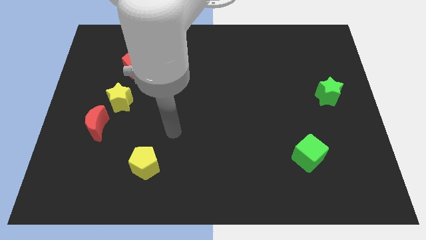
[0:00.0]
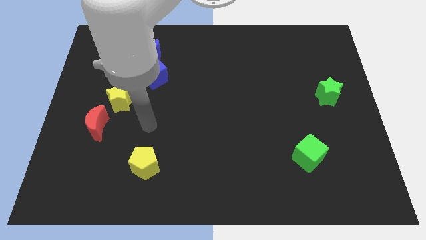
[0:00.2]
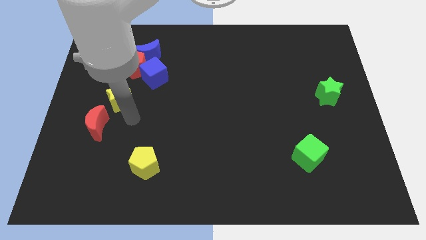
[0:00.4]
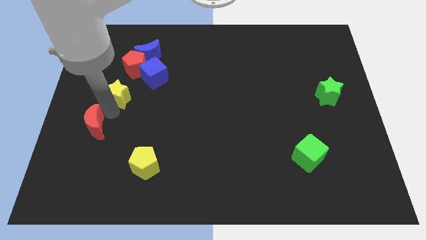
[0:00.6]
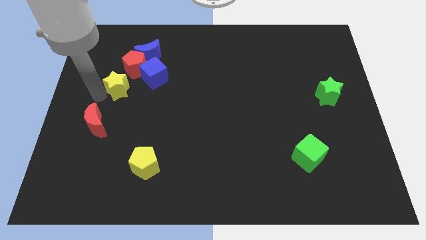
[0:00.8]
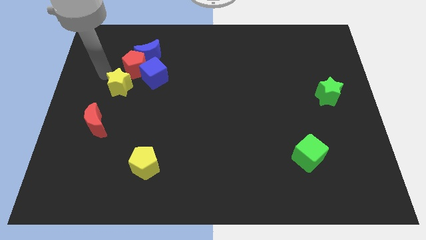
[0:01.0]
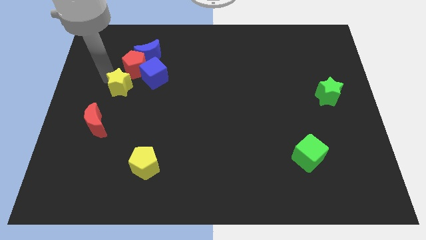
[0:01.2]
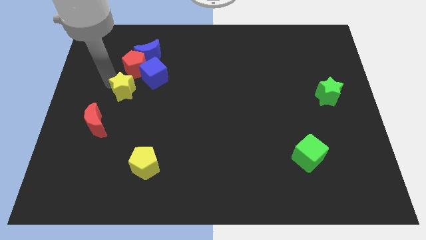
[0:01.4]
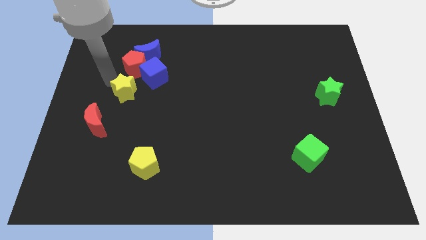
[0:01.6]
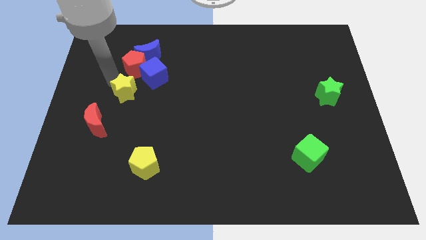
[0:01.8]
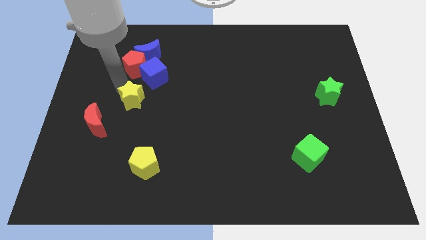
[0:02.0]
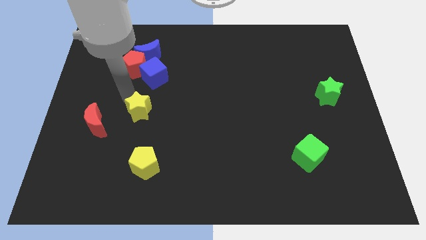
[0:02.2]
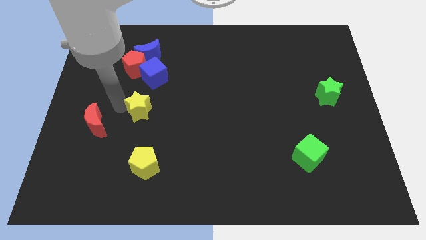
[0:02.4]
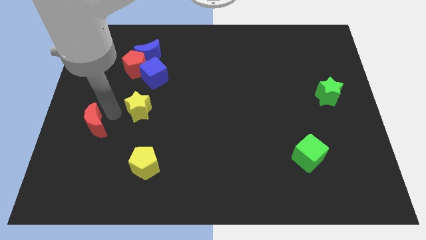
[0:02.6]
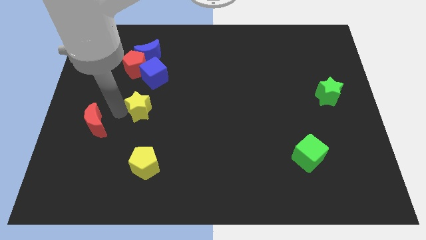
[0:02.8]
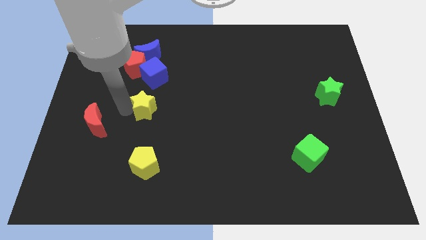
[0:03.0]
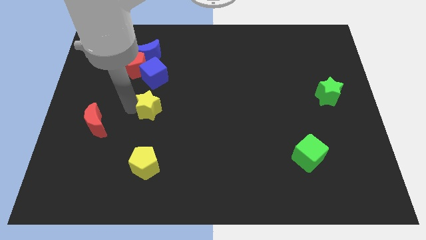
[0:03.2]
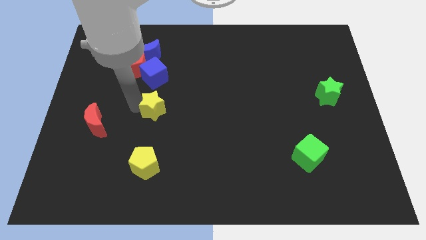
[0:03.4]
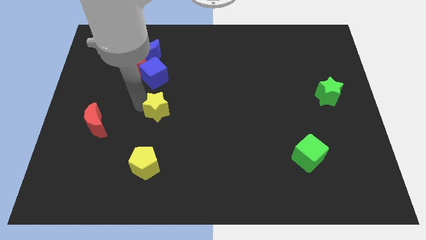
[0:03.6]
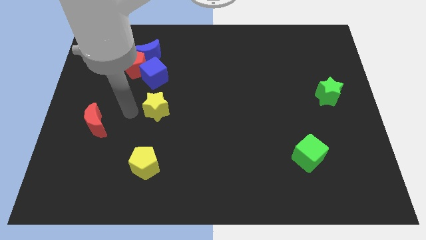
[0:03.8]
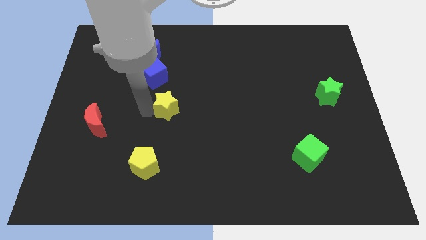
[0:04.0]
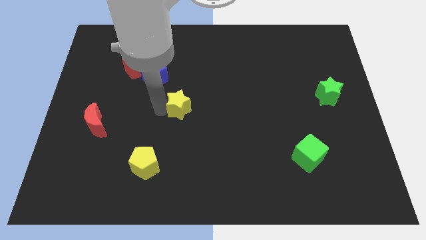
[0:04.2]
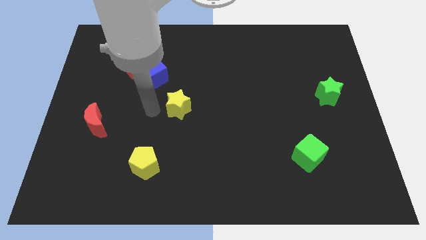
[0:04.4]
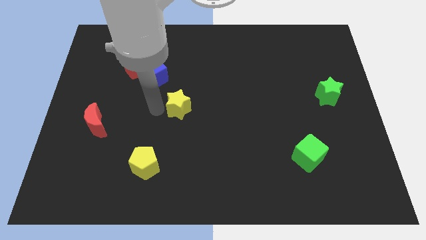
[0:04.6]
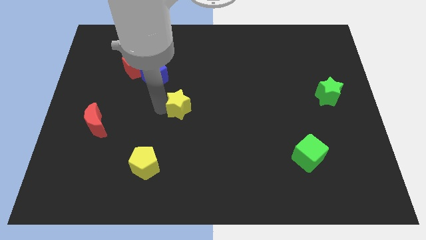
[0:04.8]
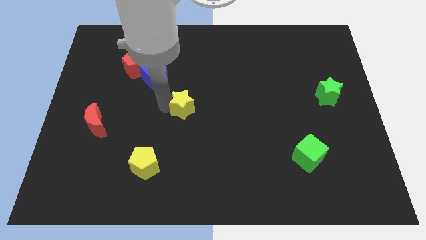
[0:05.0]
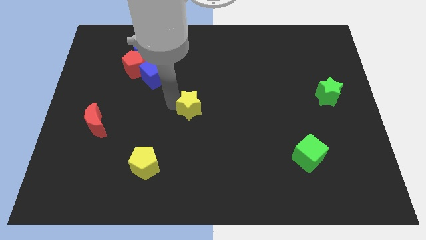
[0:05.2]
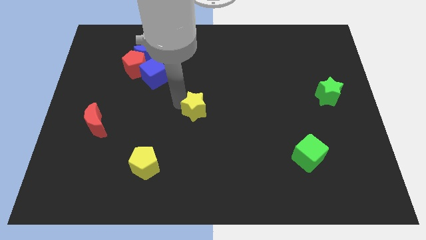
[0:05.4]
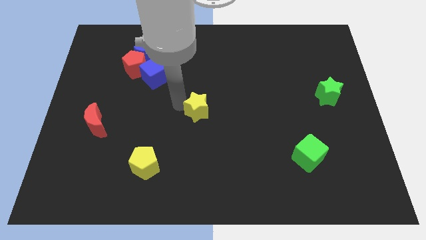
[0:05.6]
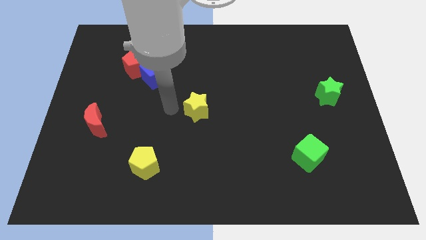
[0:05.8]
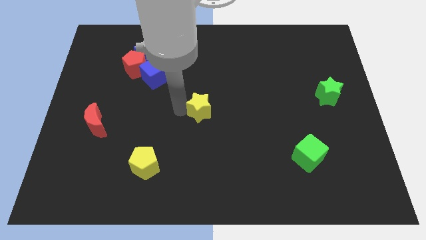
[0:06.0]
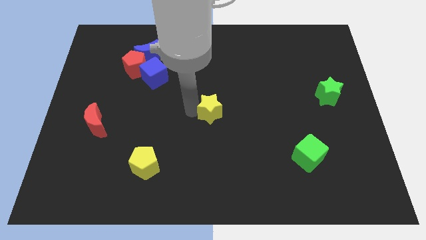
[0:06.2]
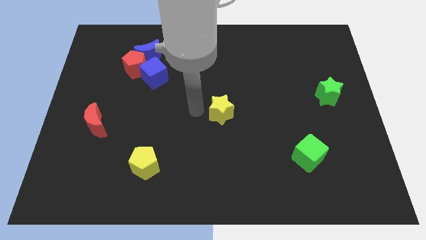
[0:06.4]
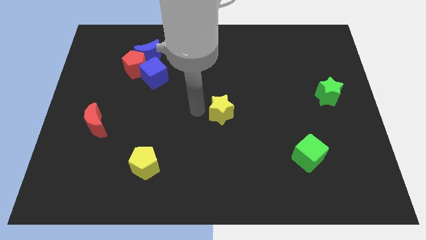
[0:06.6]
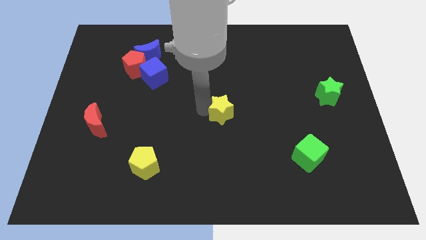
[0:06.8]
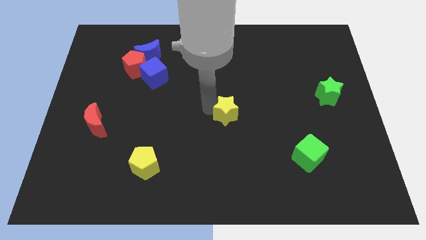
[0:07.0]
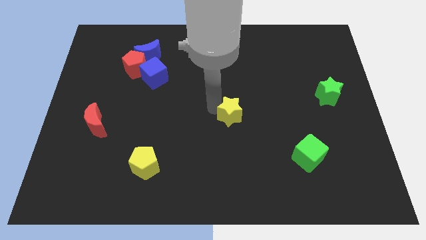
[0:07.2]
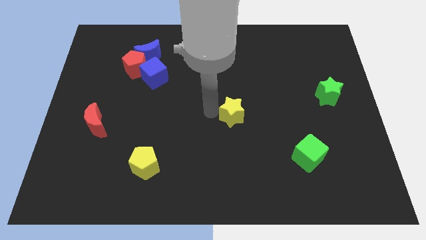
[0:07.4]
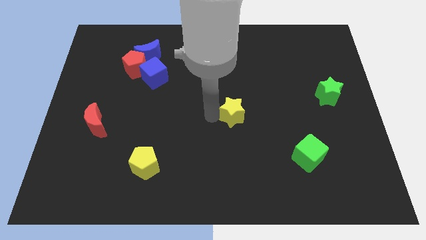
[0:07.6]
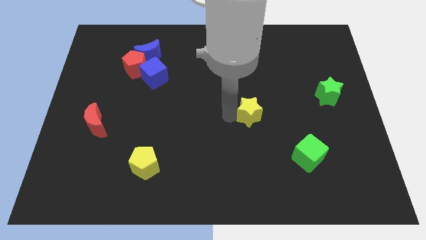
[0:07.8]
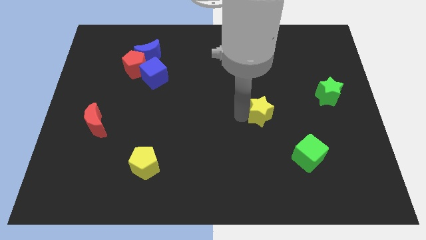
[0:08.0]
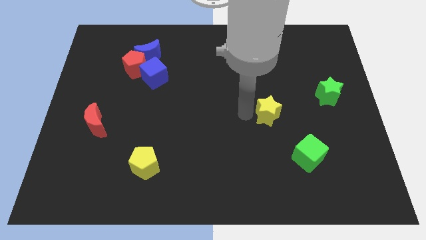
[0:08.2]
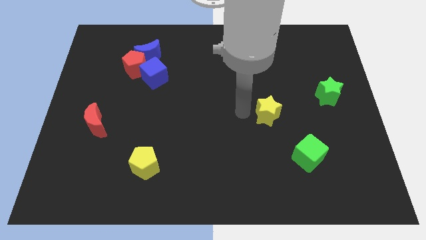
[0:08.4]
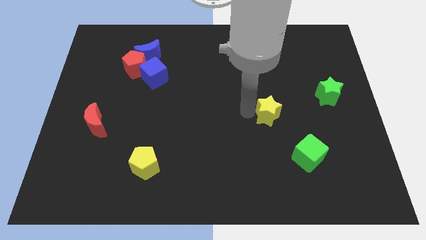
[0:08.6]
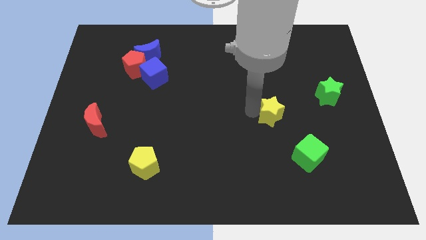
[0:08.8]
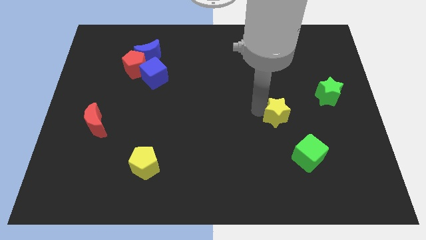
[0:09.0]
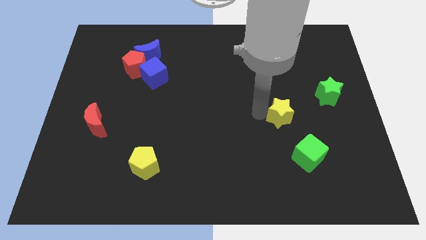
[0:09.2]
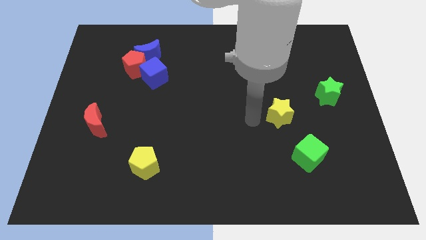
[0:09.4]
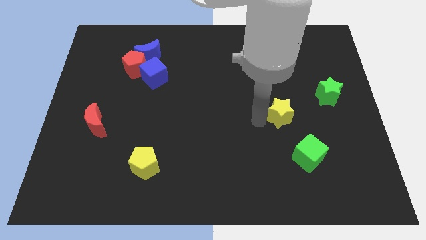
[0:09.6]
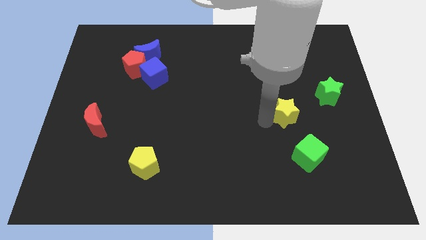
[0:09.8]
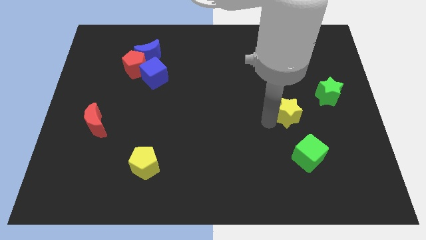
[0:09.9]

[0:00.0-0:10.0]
slide the yellow star to the bottom left side of the green star

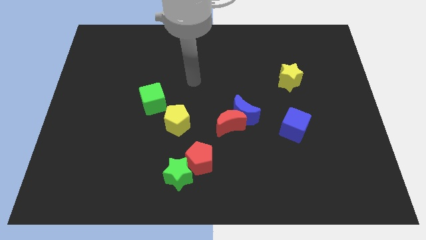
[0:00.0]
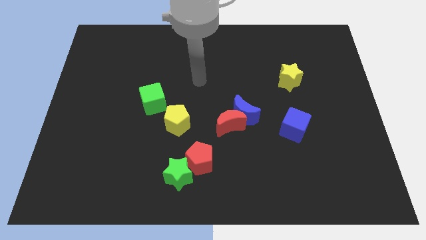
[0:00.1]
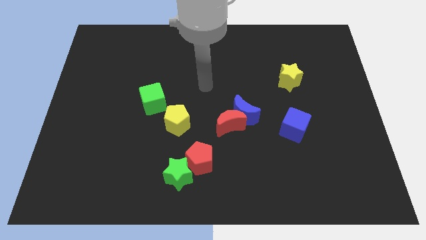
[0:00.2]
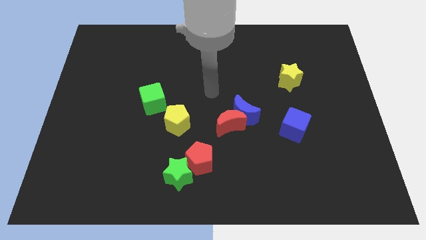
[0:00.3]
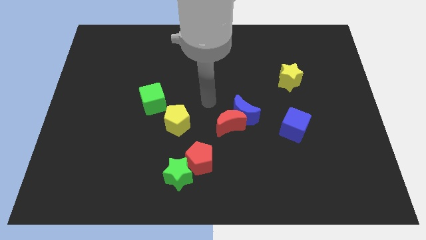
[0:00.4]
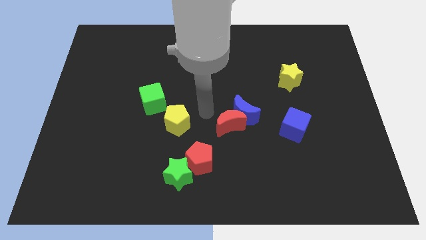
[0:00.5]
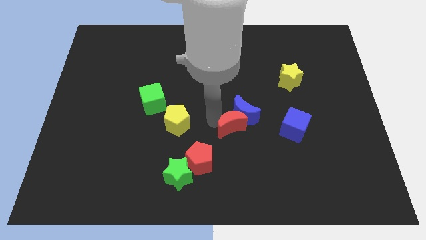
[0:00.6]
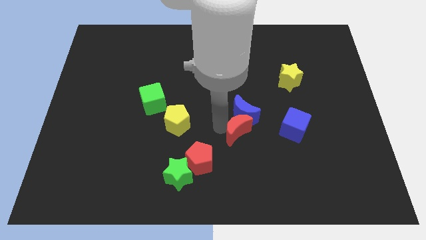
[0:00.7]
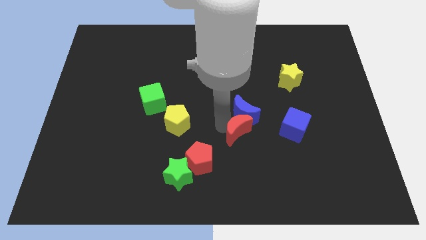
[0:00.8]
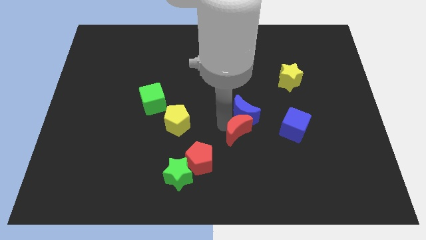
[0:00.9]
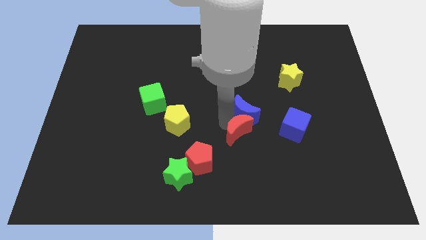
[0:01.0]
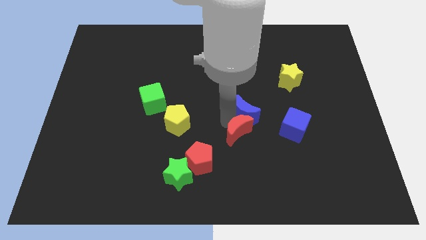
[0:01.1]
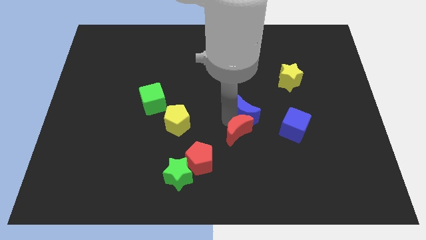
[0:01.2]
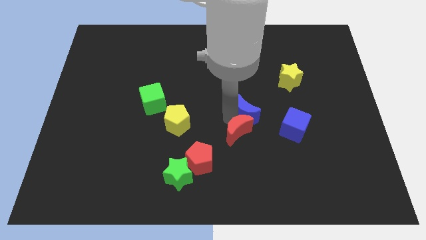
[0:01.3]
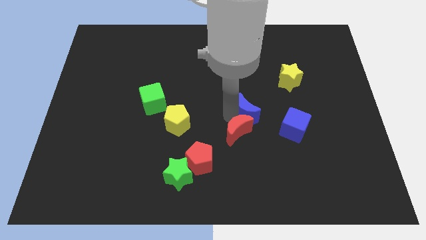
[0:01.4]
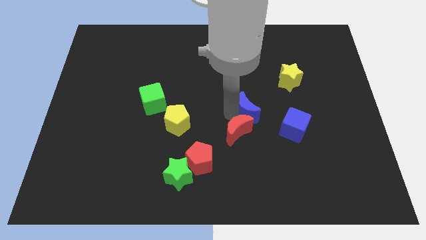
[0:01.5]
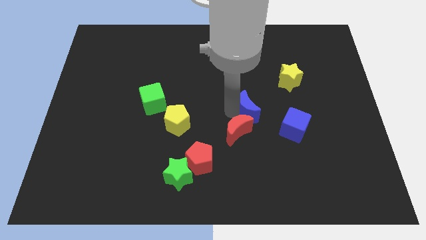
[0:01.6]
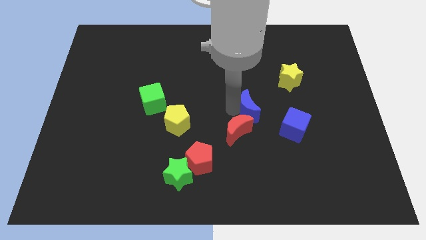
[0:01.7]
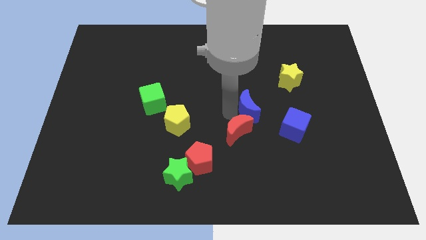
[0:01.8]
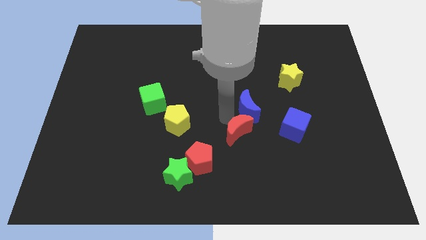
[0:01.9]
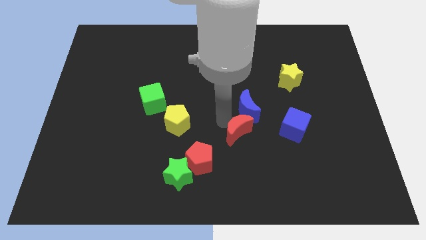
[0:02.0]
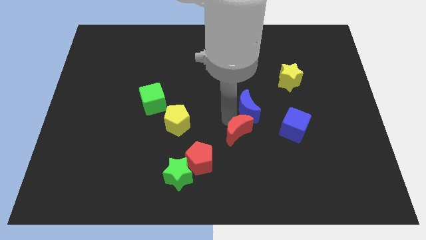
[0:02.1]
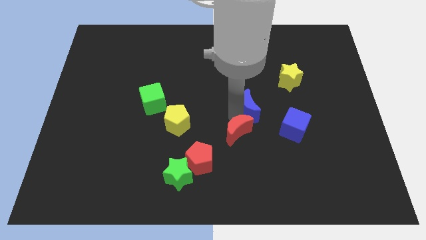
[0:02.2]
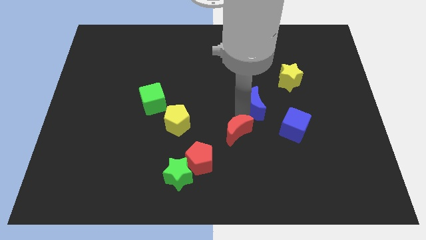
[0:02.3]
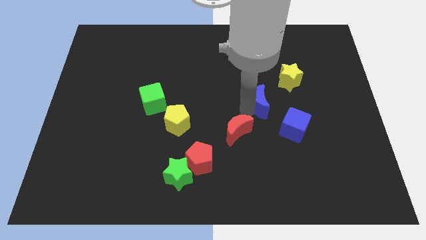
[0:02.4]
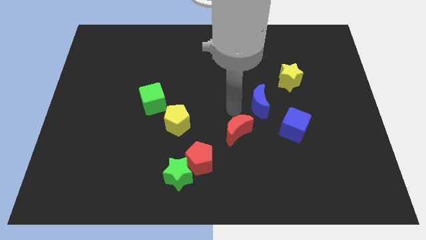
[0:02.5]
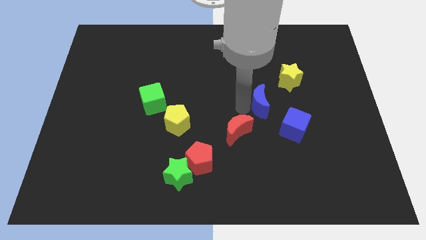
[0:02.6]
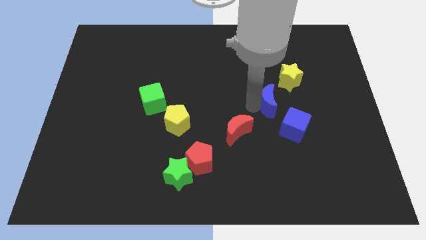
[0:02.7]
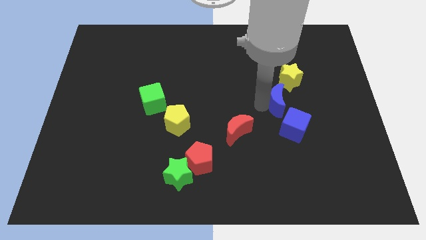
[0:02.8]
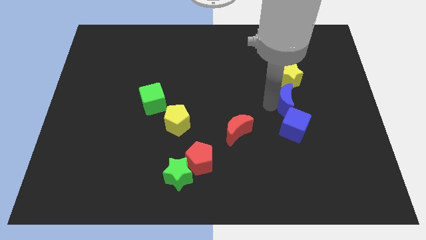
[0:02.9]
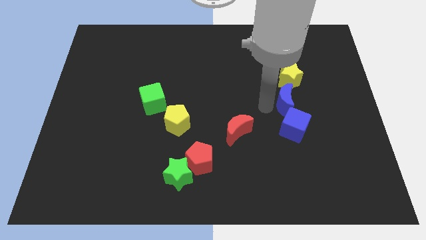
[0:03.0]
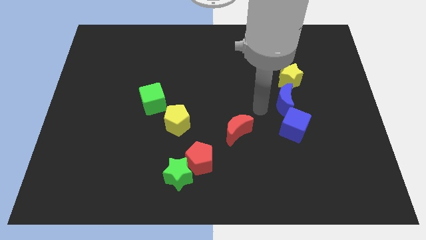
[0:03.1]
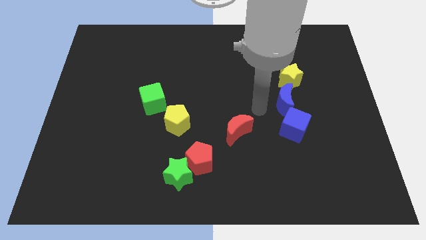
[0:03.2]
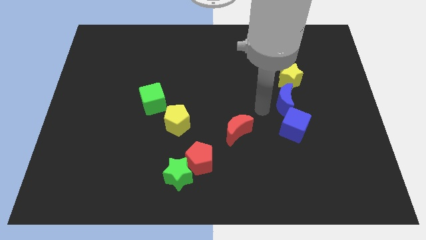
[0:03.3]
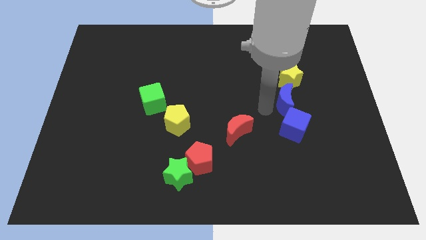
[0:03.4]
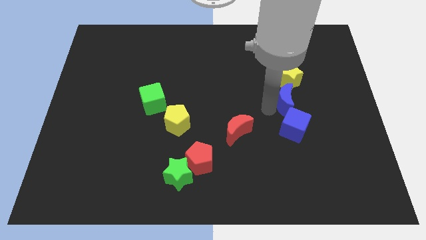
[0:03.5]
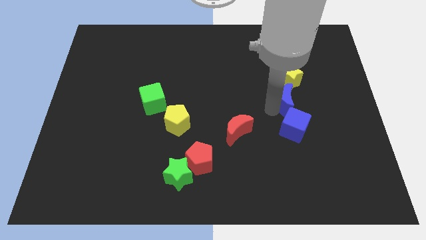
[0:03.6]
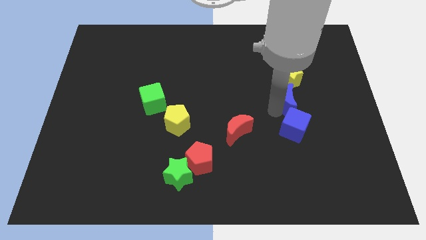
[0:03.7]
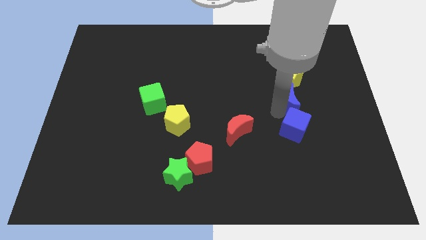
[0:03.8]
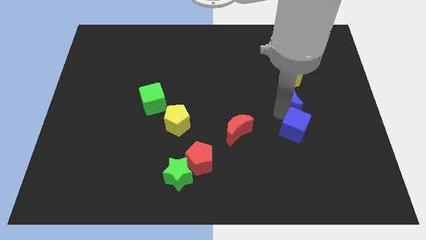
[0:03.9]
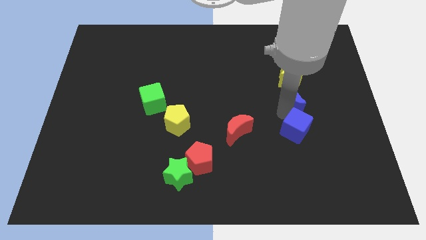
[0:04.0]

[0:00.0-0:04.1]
put the blue moon diagonally down and to the right of the yellow star
